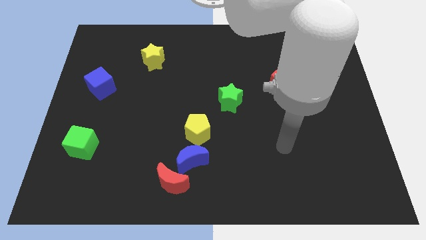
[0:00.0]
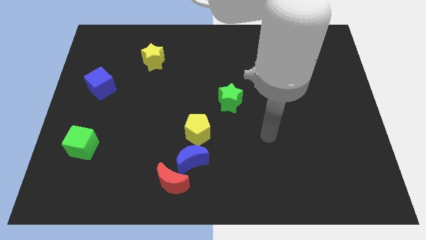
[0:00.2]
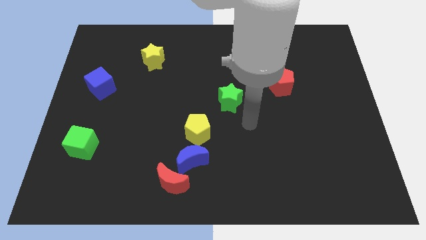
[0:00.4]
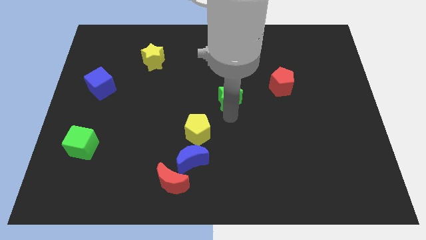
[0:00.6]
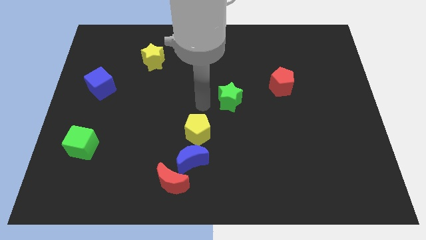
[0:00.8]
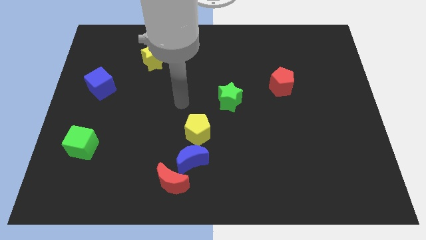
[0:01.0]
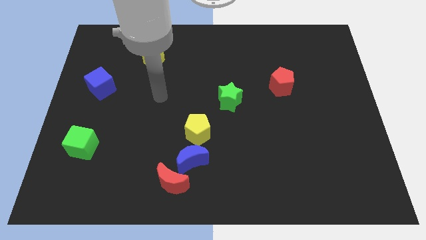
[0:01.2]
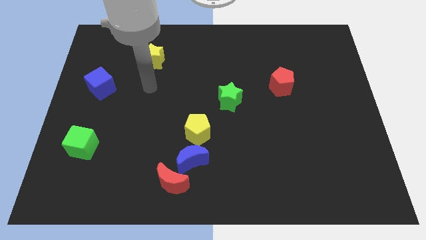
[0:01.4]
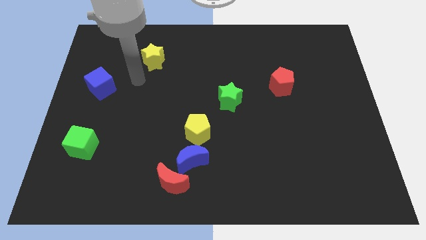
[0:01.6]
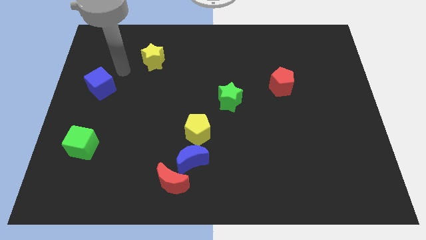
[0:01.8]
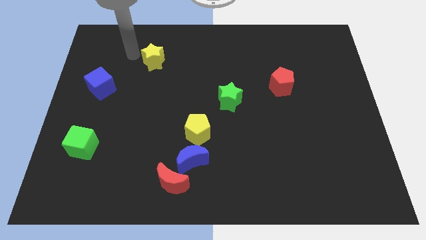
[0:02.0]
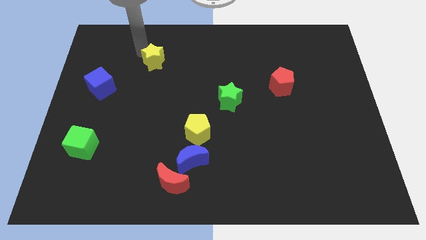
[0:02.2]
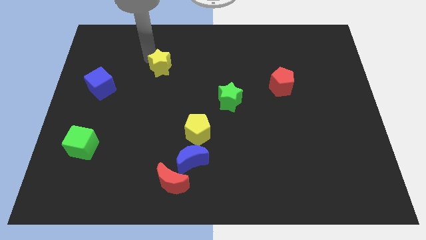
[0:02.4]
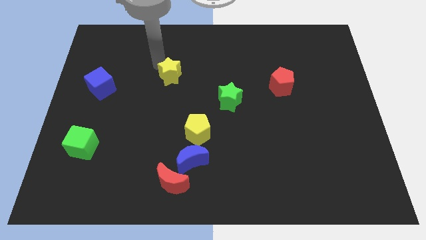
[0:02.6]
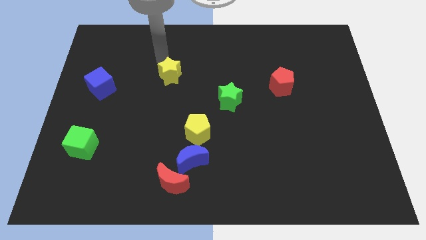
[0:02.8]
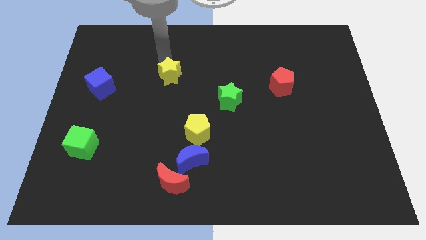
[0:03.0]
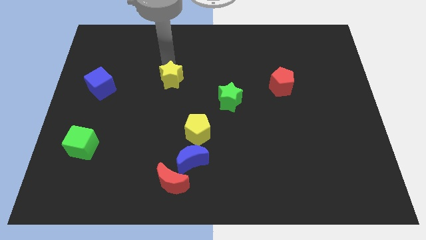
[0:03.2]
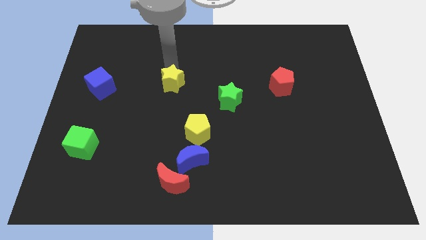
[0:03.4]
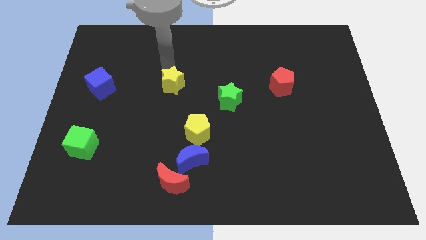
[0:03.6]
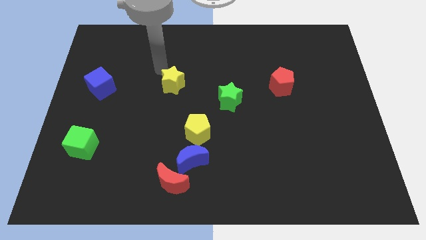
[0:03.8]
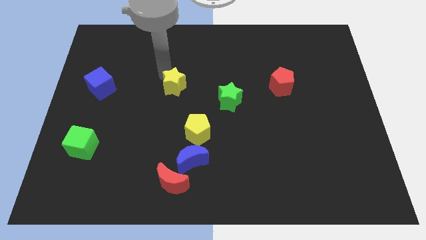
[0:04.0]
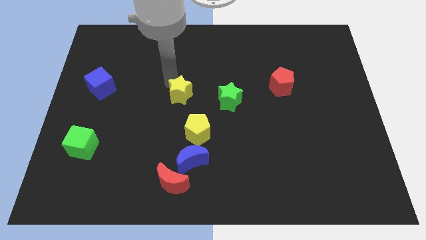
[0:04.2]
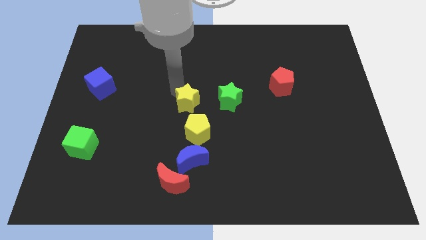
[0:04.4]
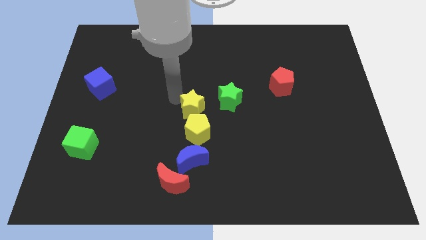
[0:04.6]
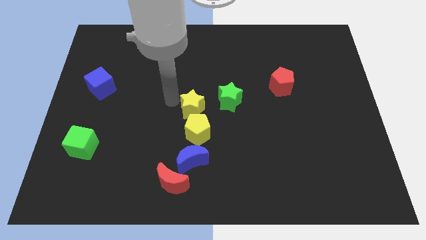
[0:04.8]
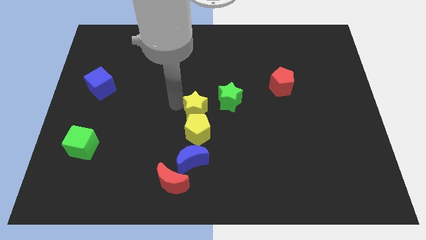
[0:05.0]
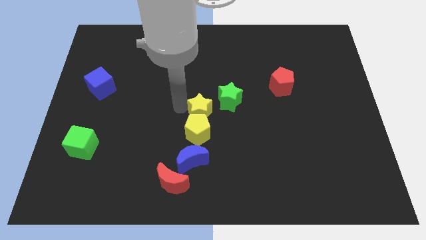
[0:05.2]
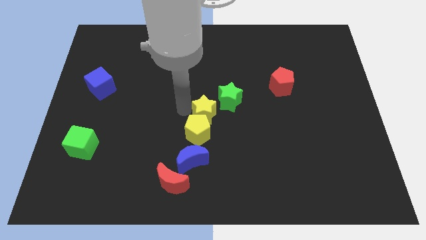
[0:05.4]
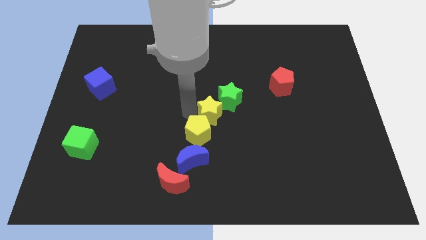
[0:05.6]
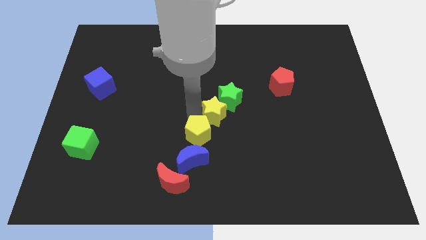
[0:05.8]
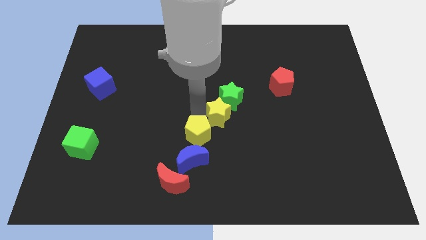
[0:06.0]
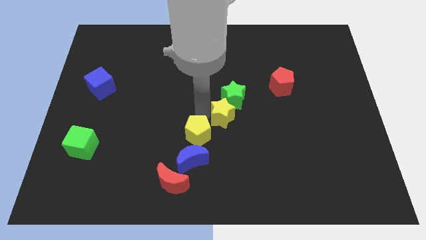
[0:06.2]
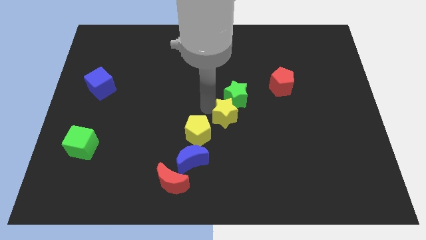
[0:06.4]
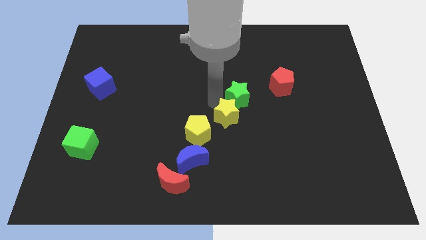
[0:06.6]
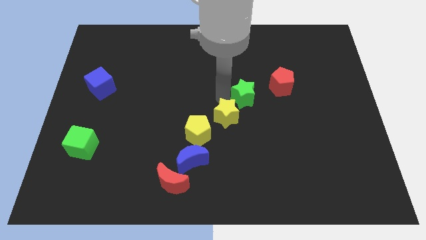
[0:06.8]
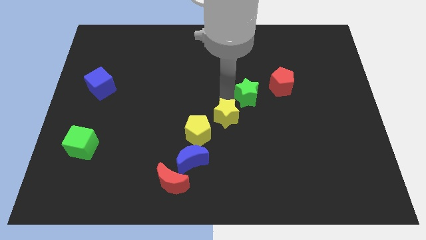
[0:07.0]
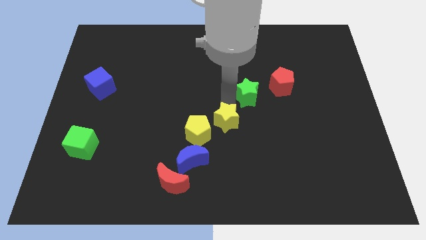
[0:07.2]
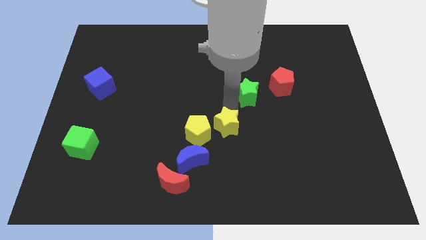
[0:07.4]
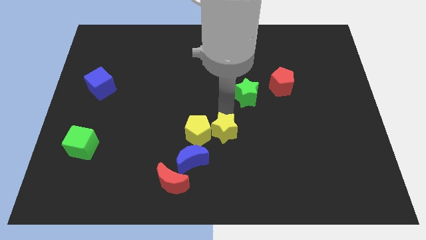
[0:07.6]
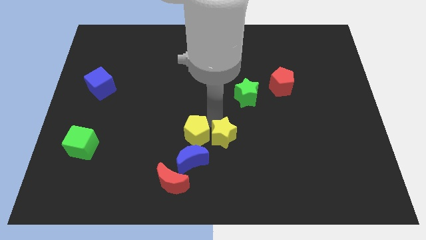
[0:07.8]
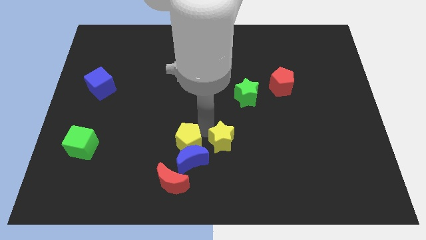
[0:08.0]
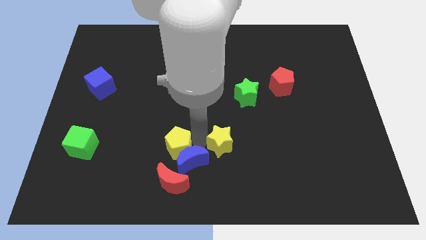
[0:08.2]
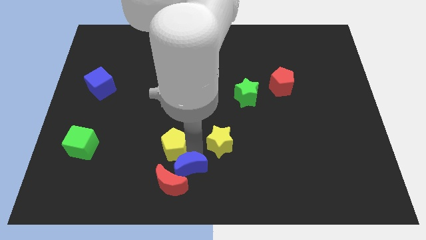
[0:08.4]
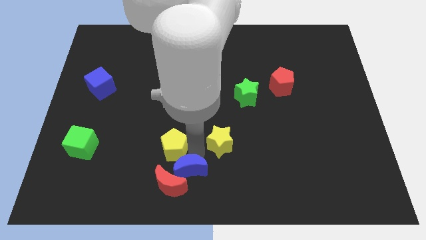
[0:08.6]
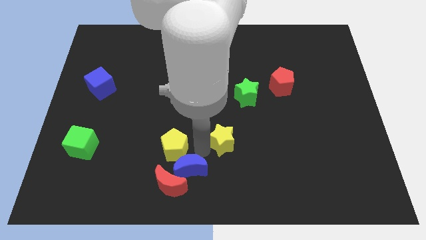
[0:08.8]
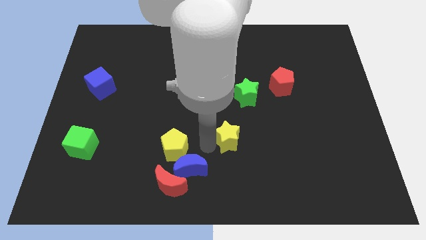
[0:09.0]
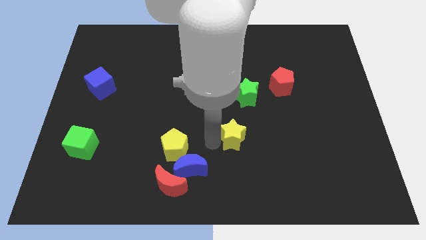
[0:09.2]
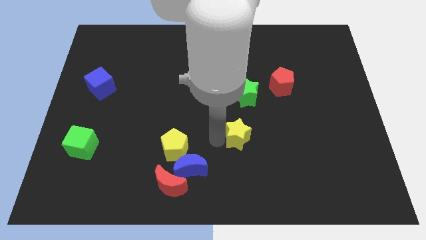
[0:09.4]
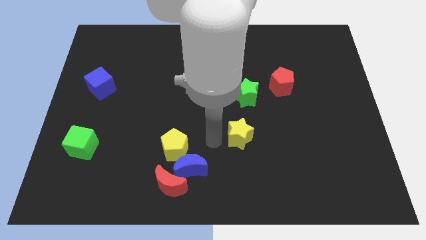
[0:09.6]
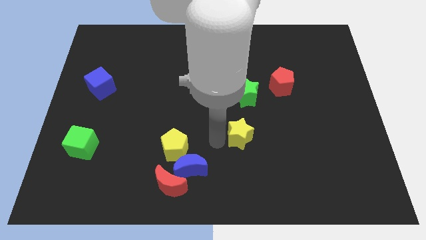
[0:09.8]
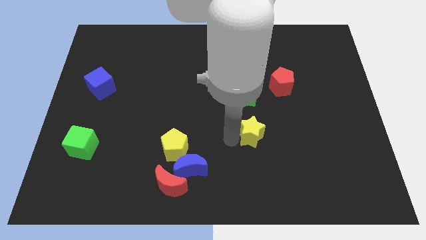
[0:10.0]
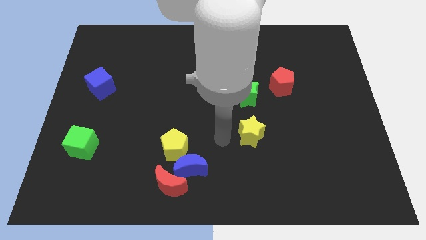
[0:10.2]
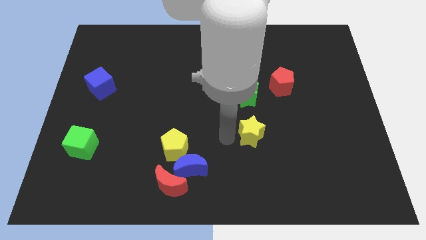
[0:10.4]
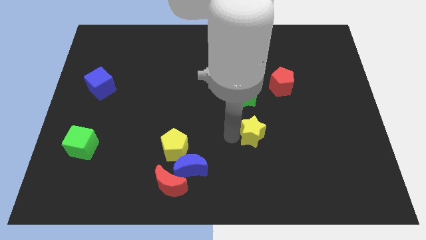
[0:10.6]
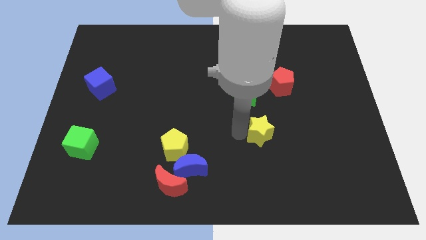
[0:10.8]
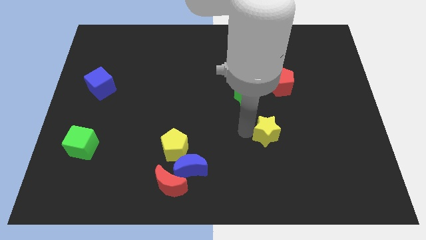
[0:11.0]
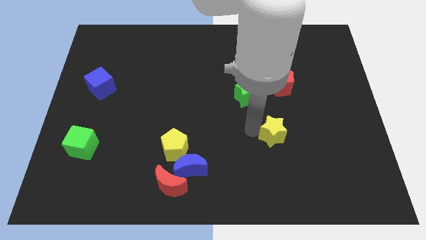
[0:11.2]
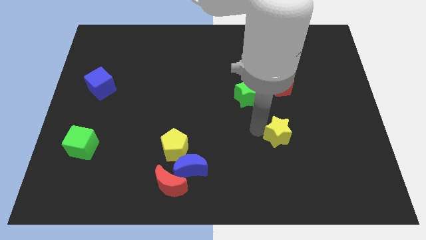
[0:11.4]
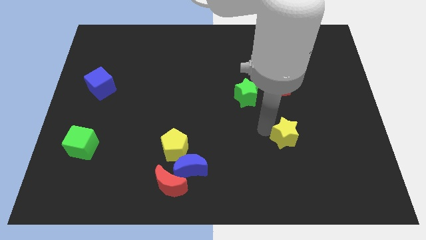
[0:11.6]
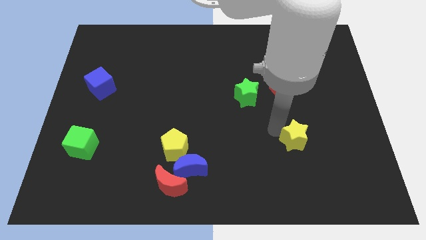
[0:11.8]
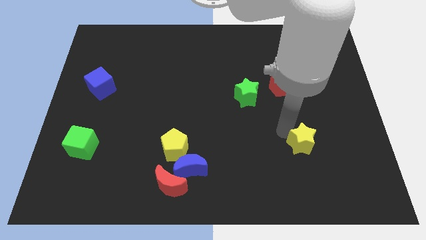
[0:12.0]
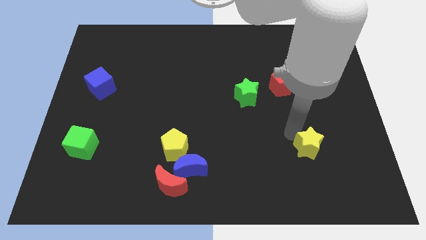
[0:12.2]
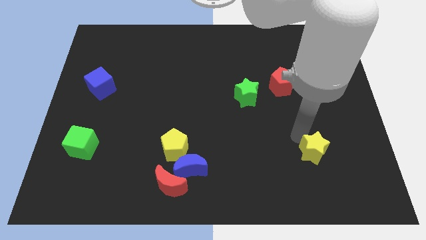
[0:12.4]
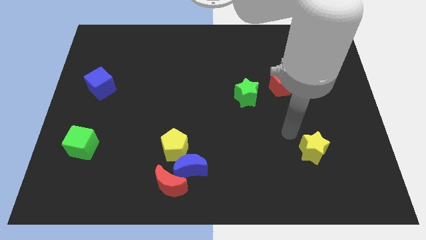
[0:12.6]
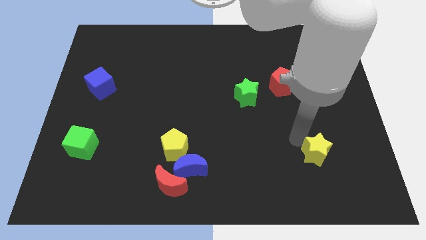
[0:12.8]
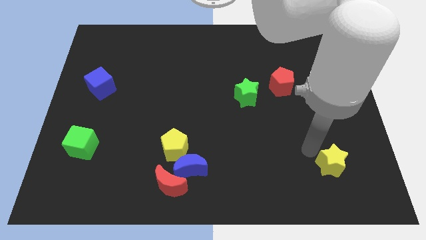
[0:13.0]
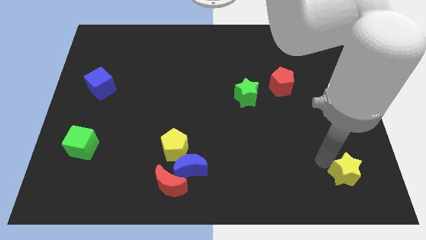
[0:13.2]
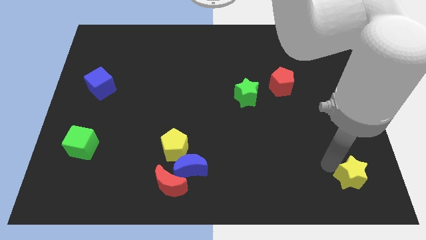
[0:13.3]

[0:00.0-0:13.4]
slide the yellow star to the bottom right of the board
